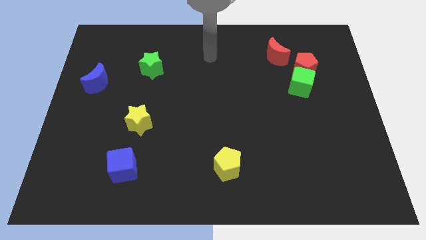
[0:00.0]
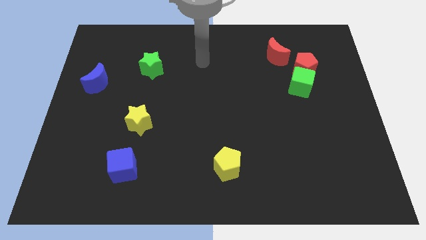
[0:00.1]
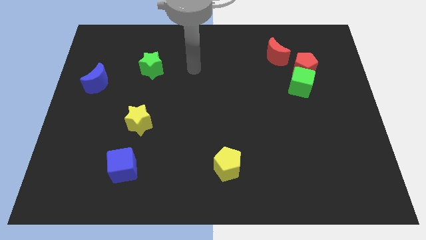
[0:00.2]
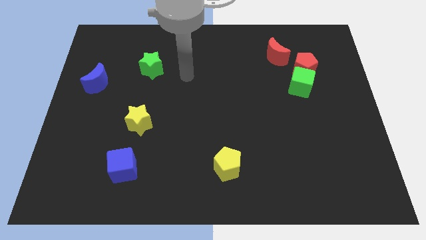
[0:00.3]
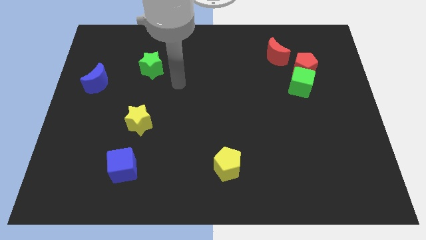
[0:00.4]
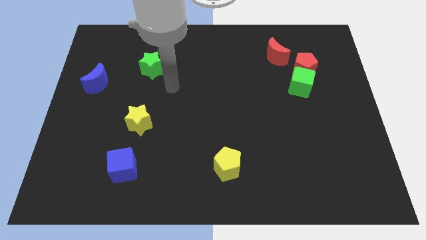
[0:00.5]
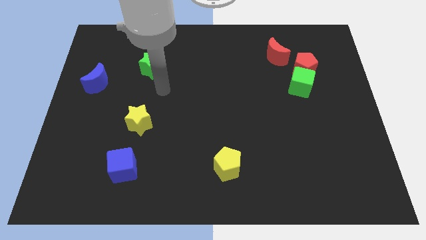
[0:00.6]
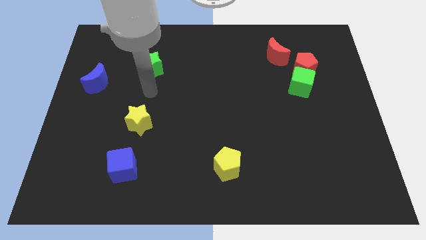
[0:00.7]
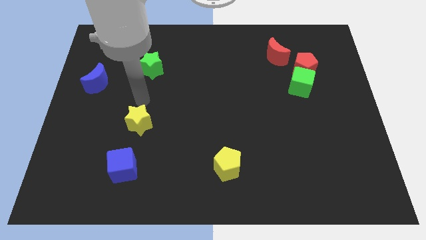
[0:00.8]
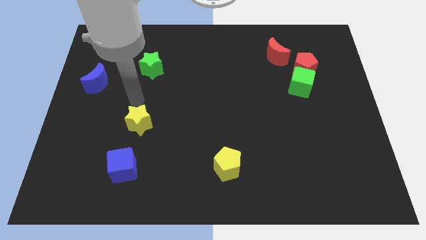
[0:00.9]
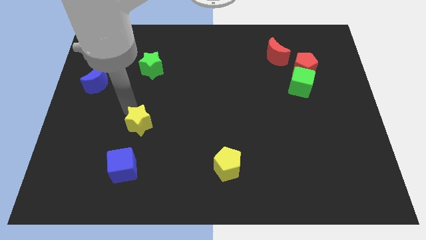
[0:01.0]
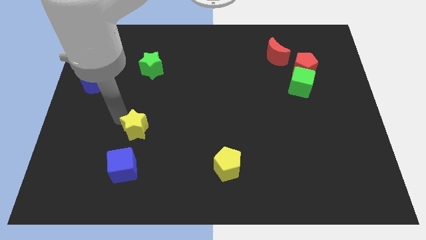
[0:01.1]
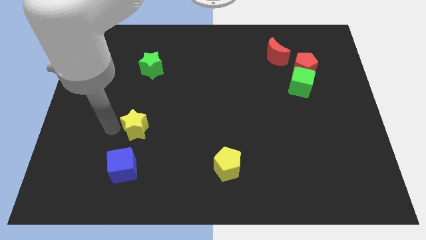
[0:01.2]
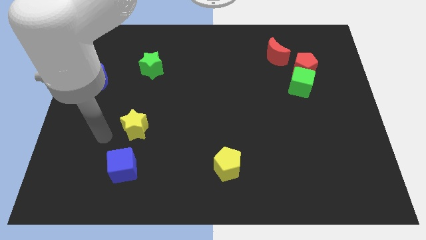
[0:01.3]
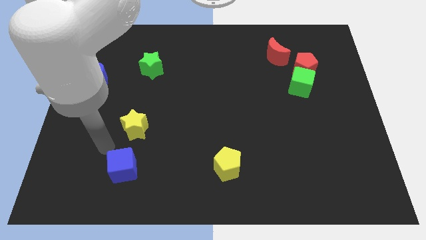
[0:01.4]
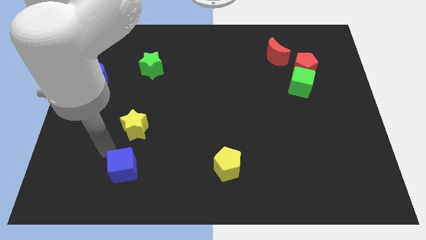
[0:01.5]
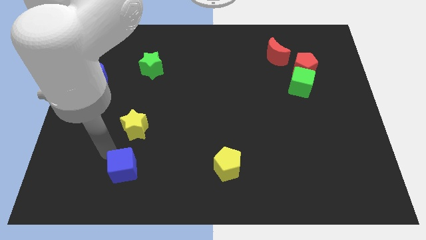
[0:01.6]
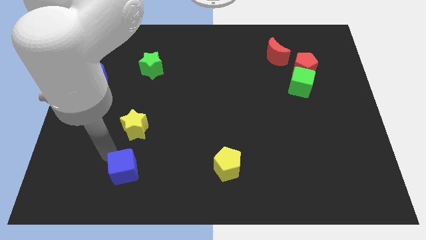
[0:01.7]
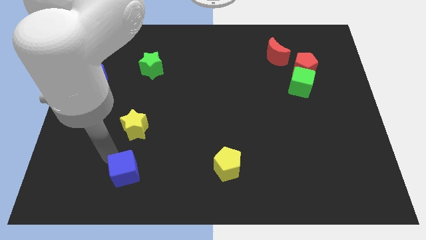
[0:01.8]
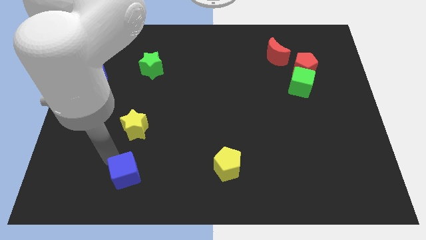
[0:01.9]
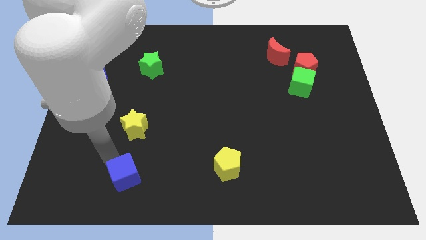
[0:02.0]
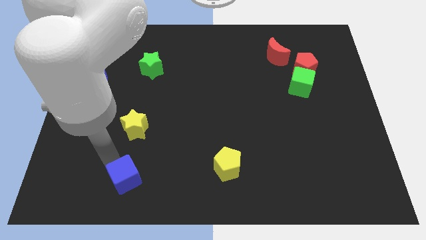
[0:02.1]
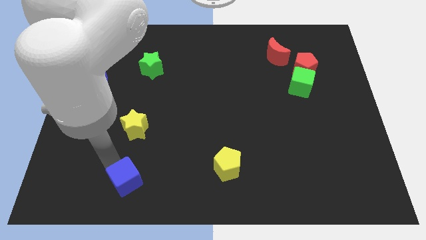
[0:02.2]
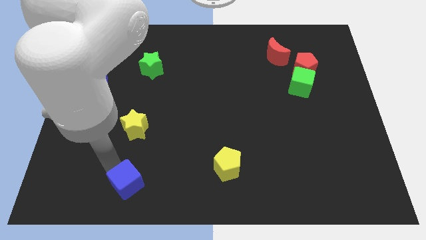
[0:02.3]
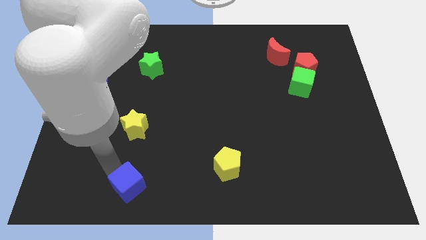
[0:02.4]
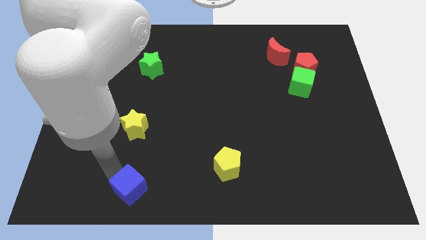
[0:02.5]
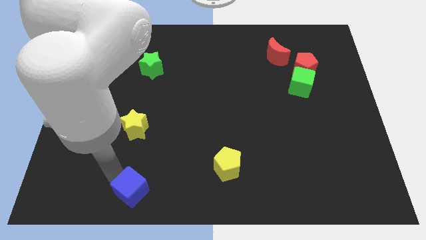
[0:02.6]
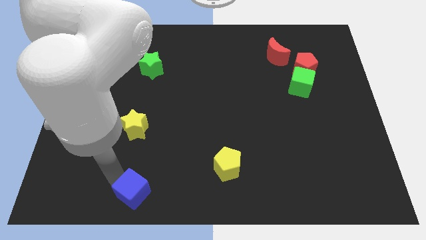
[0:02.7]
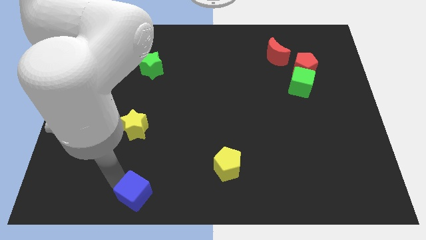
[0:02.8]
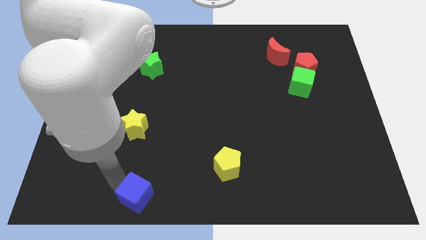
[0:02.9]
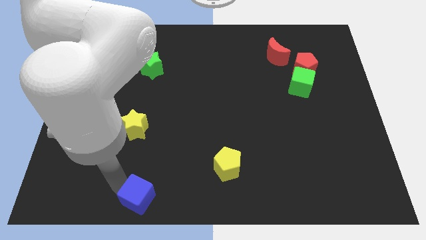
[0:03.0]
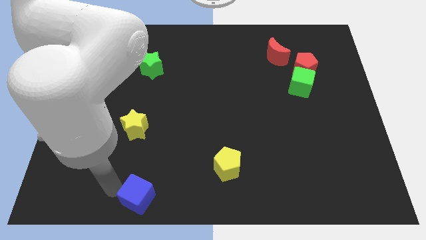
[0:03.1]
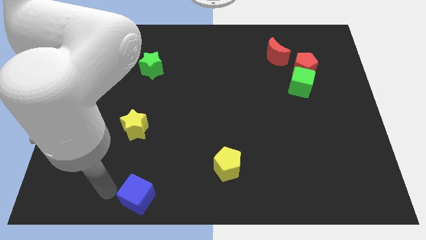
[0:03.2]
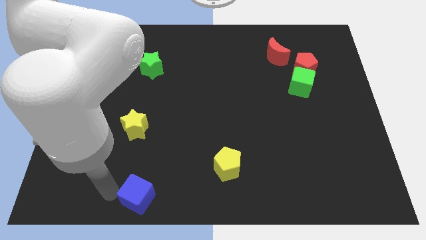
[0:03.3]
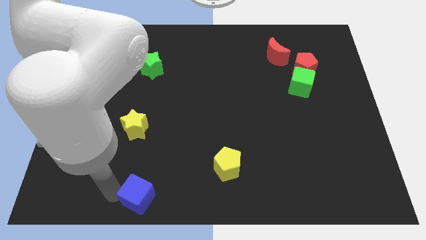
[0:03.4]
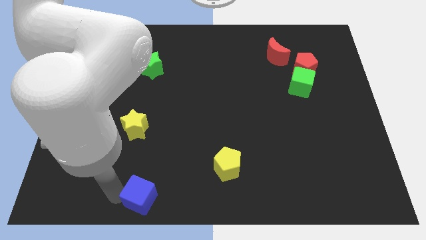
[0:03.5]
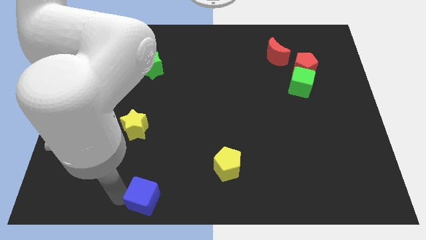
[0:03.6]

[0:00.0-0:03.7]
move the blue cube to the bottom side

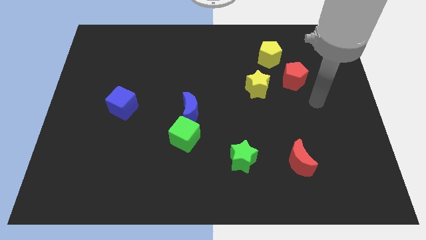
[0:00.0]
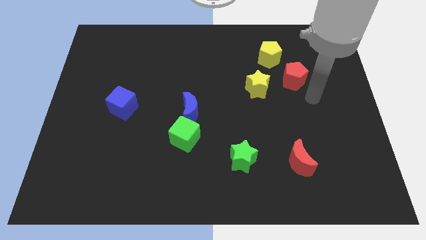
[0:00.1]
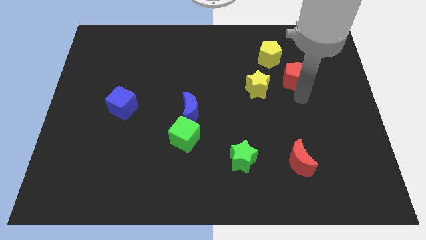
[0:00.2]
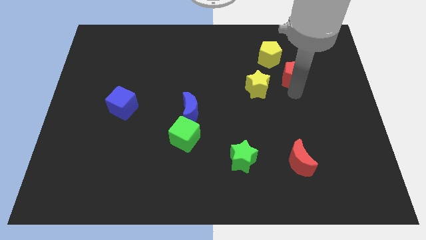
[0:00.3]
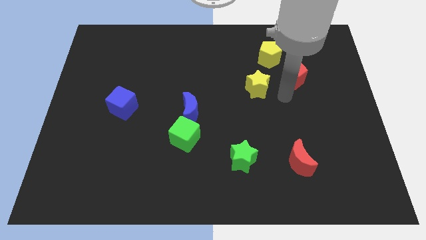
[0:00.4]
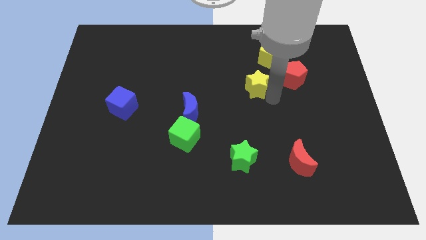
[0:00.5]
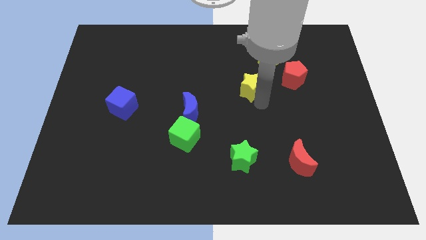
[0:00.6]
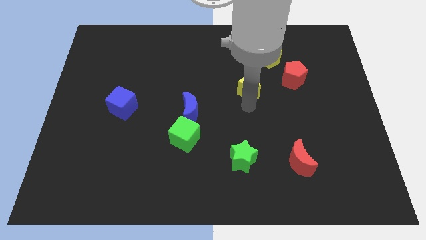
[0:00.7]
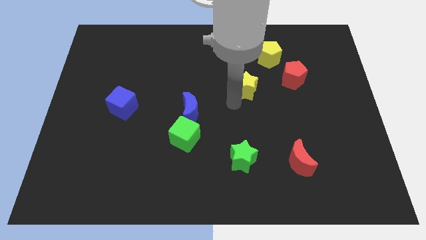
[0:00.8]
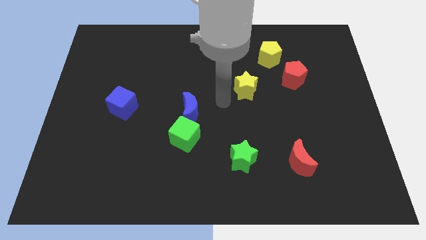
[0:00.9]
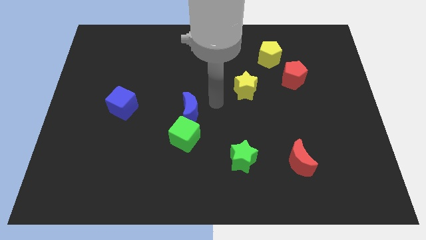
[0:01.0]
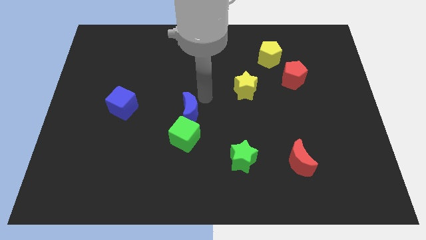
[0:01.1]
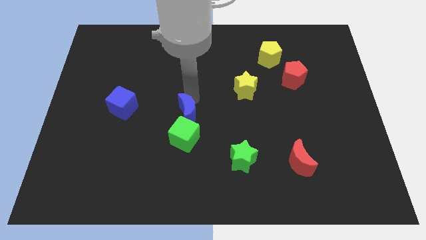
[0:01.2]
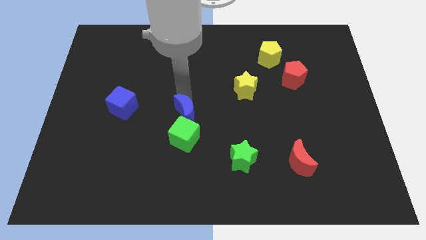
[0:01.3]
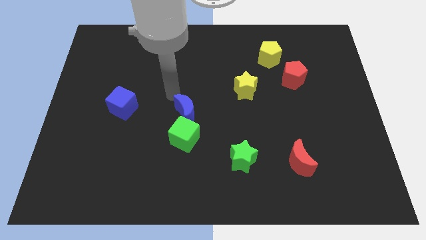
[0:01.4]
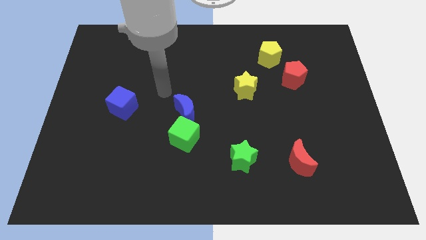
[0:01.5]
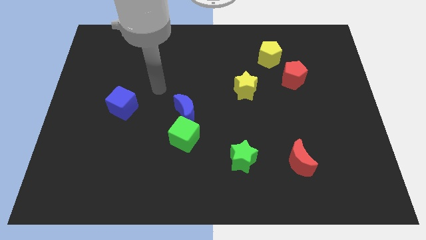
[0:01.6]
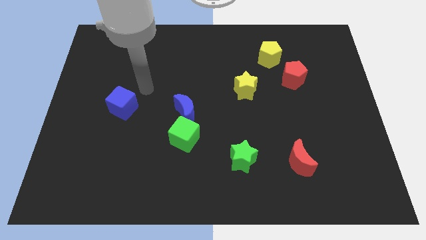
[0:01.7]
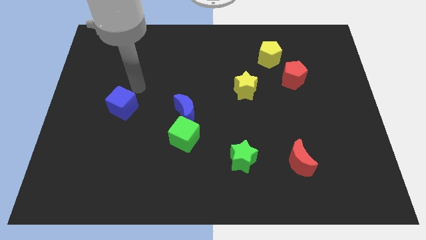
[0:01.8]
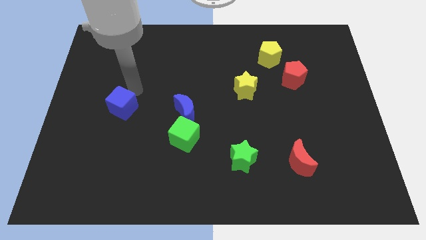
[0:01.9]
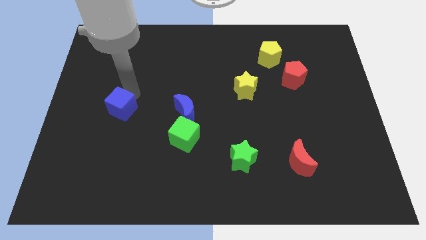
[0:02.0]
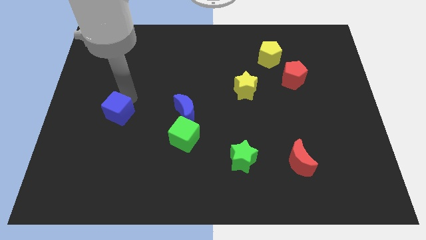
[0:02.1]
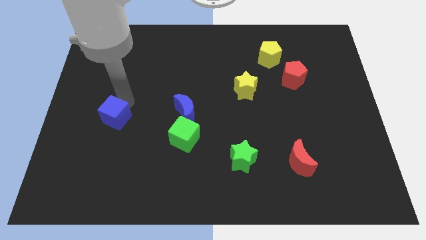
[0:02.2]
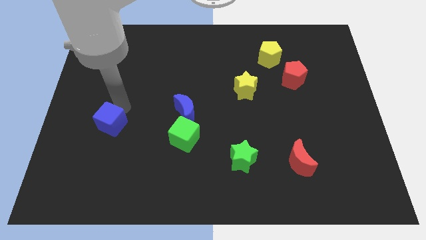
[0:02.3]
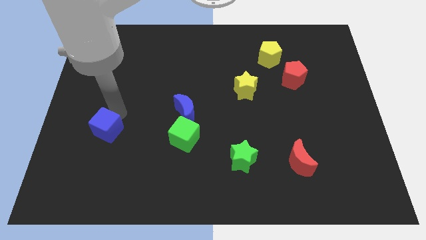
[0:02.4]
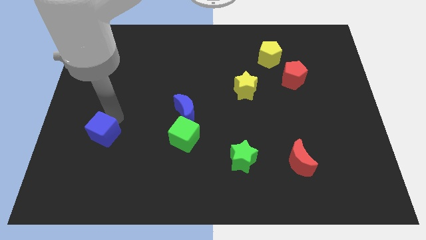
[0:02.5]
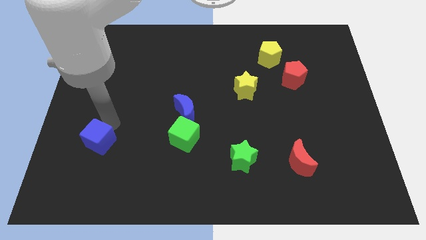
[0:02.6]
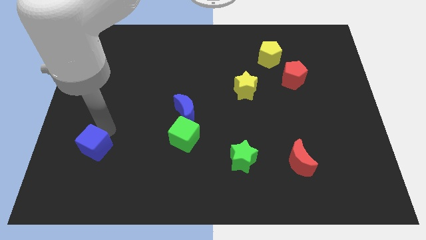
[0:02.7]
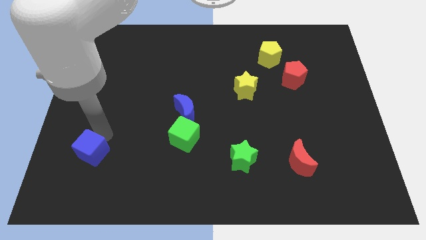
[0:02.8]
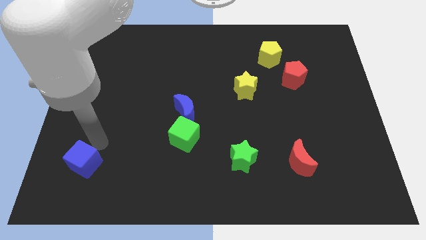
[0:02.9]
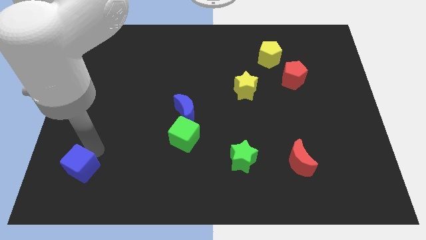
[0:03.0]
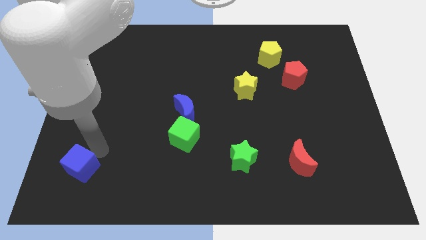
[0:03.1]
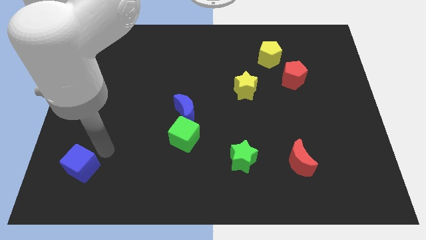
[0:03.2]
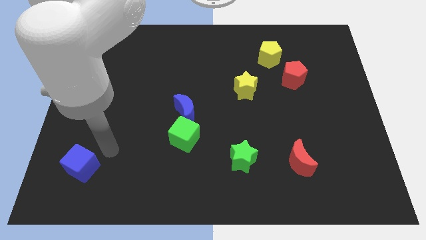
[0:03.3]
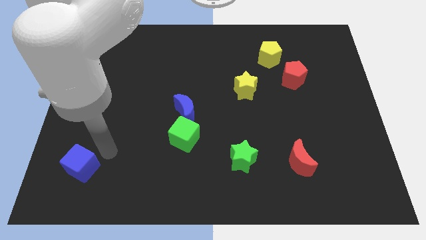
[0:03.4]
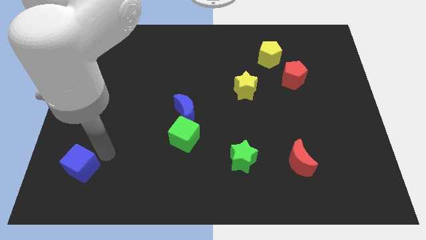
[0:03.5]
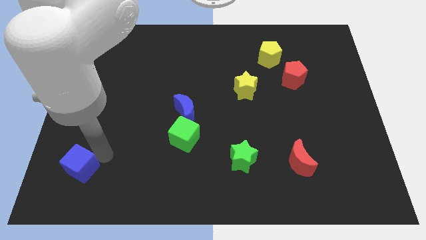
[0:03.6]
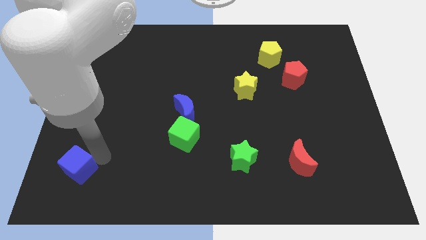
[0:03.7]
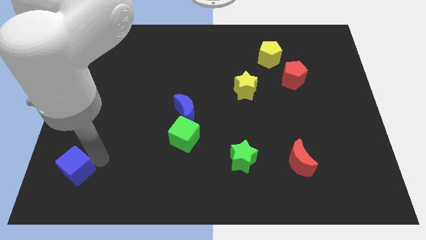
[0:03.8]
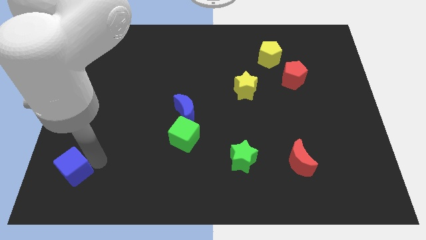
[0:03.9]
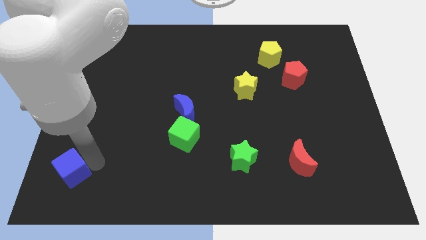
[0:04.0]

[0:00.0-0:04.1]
put the blue cube to the bottom left
